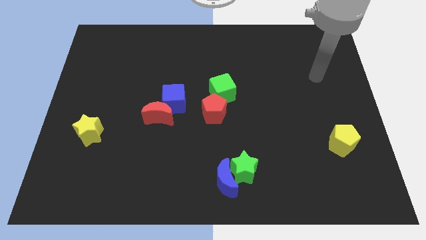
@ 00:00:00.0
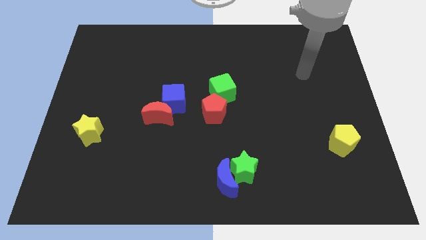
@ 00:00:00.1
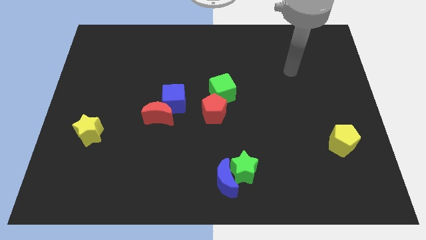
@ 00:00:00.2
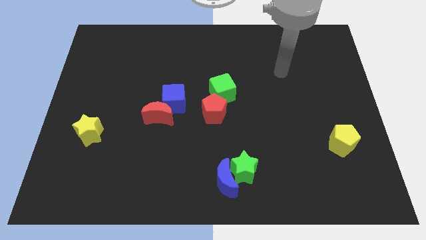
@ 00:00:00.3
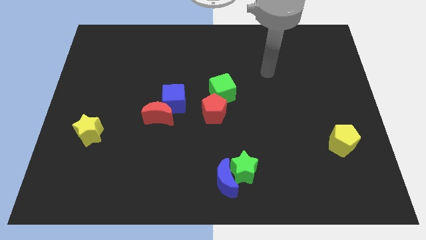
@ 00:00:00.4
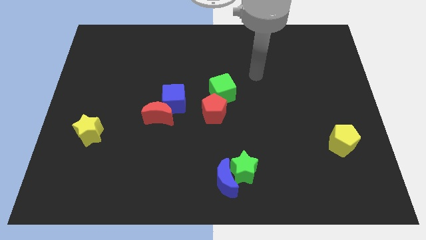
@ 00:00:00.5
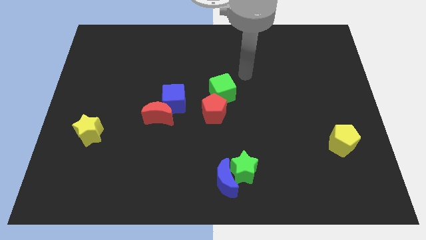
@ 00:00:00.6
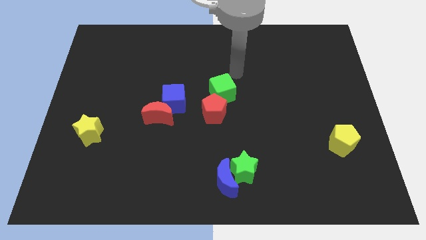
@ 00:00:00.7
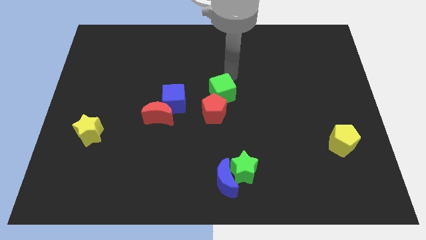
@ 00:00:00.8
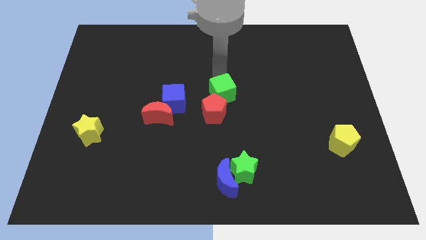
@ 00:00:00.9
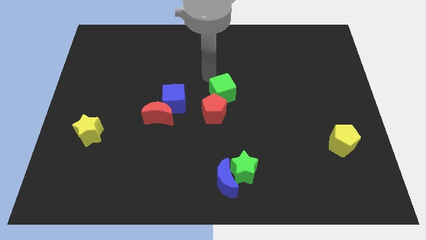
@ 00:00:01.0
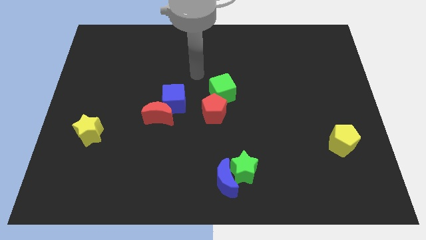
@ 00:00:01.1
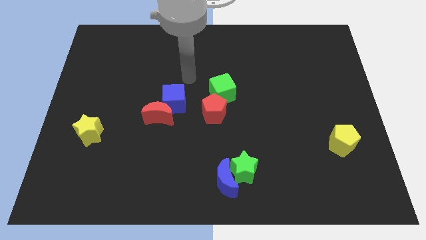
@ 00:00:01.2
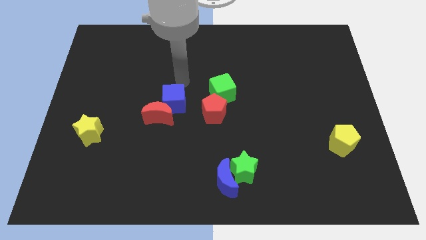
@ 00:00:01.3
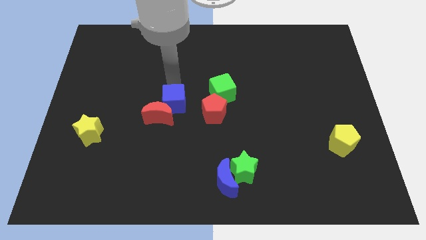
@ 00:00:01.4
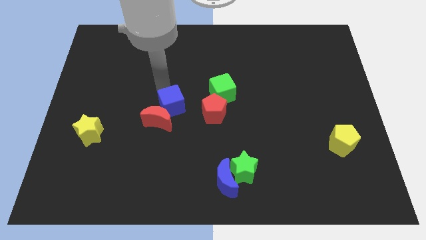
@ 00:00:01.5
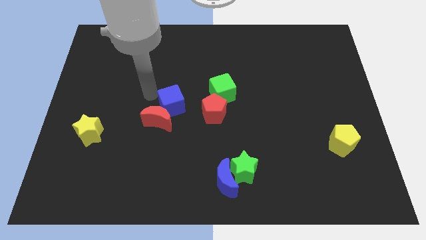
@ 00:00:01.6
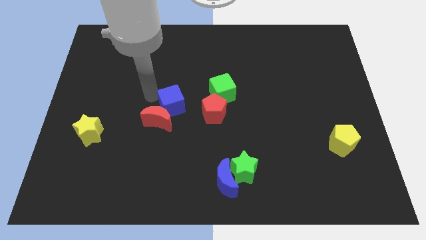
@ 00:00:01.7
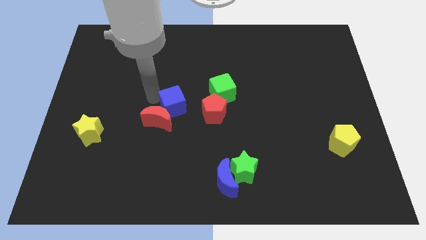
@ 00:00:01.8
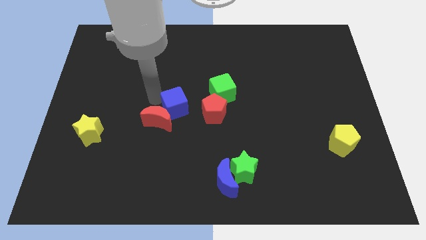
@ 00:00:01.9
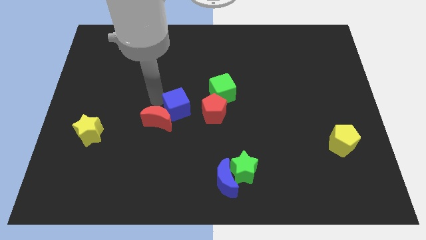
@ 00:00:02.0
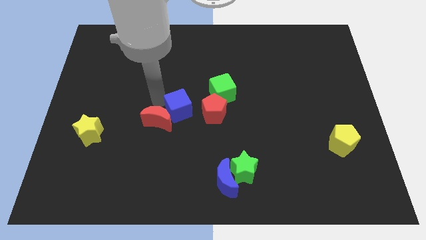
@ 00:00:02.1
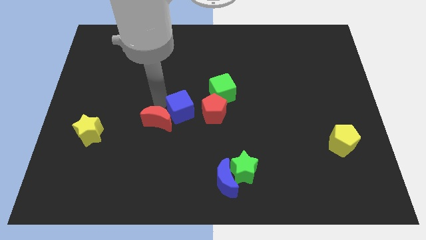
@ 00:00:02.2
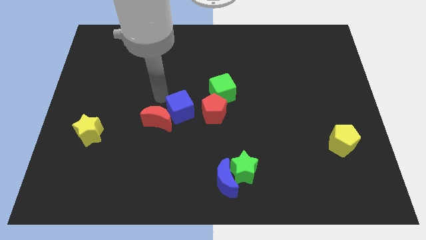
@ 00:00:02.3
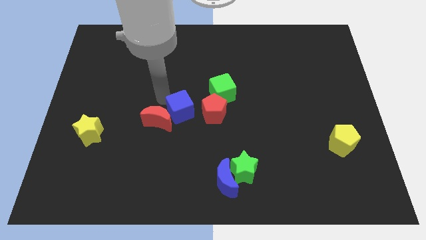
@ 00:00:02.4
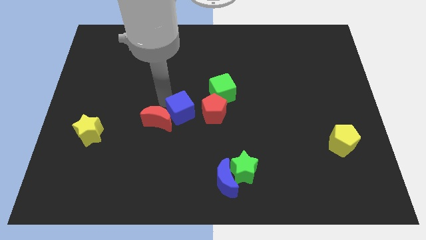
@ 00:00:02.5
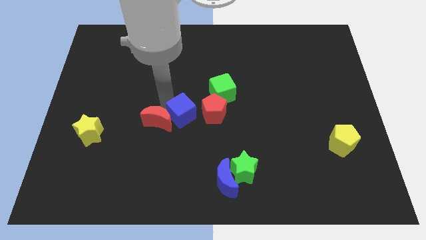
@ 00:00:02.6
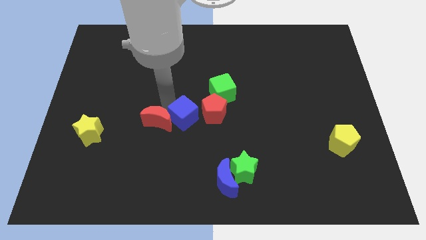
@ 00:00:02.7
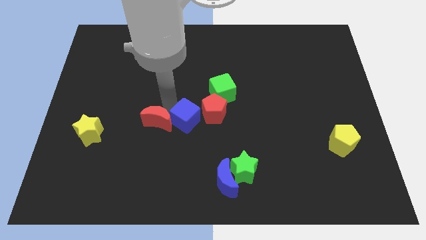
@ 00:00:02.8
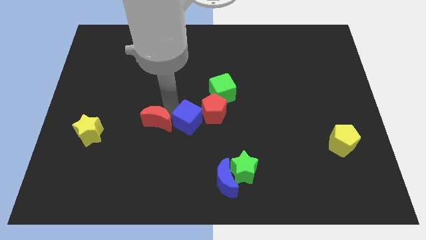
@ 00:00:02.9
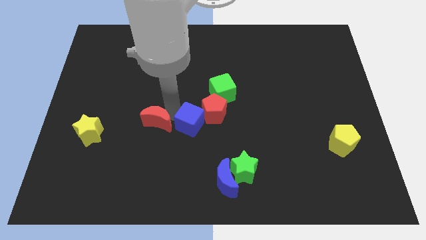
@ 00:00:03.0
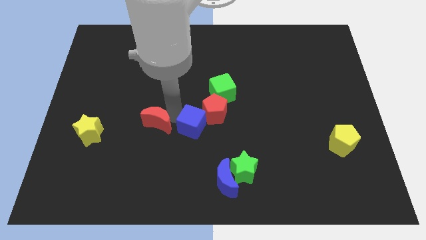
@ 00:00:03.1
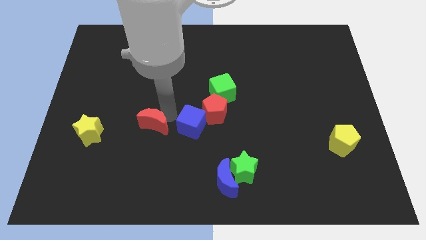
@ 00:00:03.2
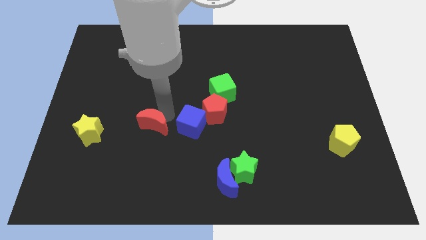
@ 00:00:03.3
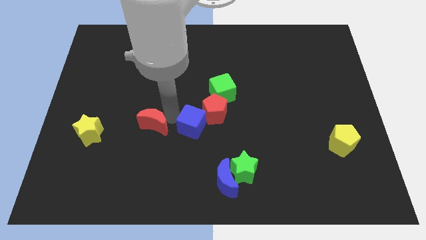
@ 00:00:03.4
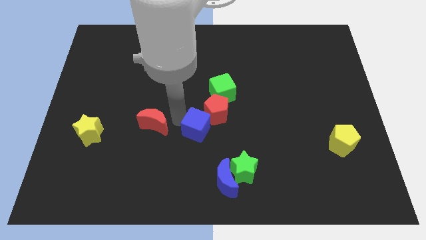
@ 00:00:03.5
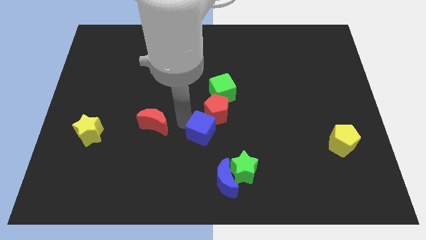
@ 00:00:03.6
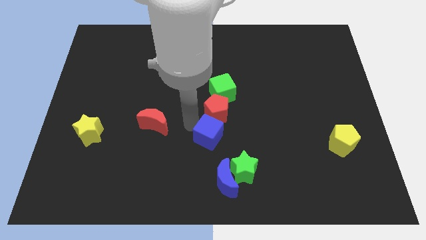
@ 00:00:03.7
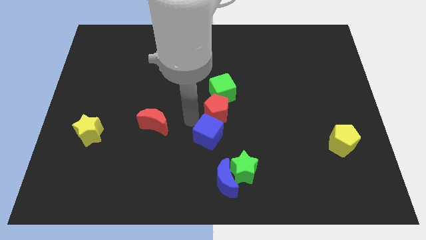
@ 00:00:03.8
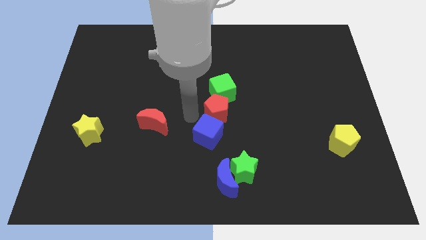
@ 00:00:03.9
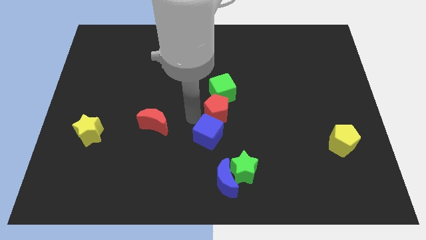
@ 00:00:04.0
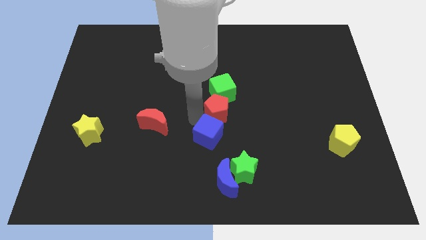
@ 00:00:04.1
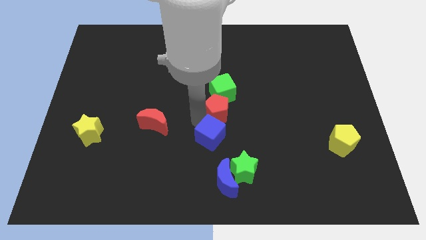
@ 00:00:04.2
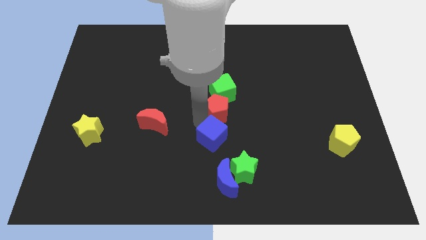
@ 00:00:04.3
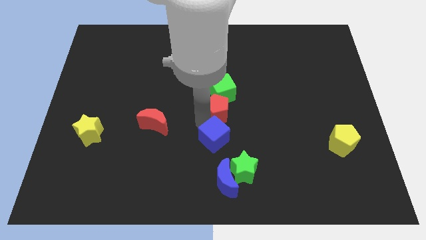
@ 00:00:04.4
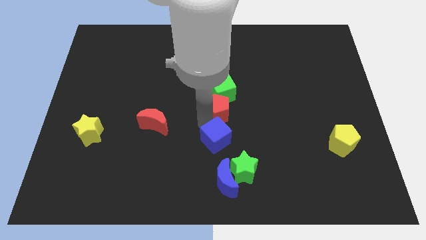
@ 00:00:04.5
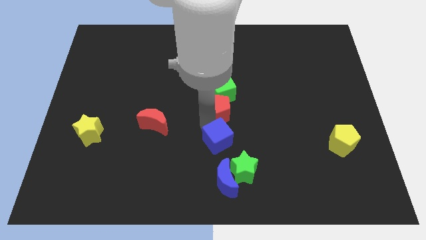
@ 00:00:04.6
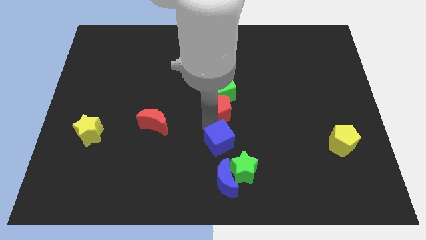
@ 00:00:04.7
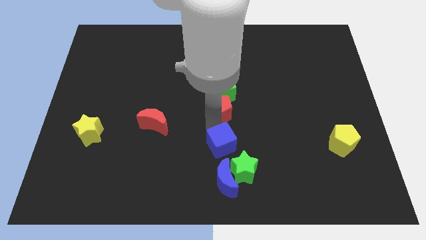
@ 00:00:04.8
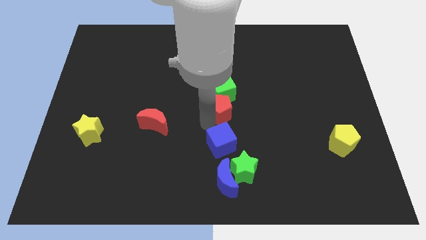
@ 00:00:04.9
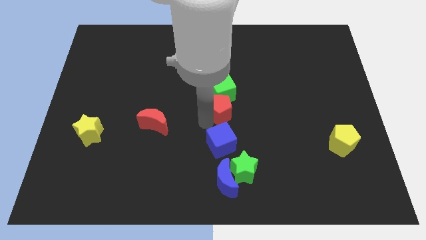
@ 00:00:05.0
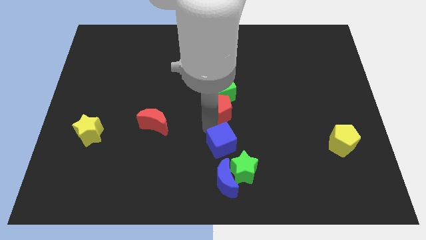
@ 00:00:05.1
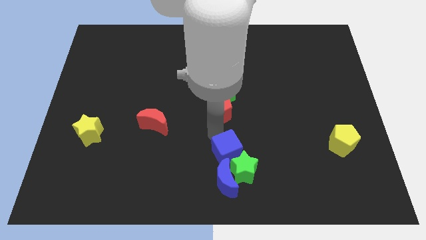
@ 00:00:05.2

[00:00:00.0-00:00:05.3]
put the blue cube next to the green star

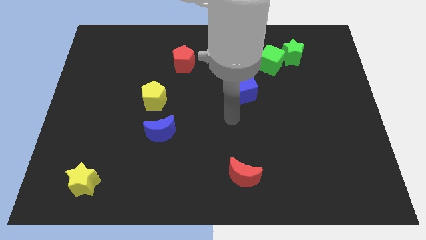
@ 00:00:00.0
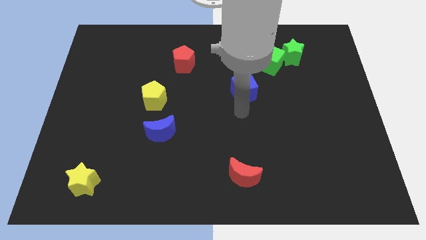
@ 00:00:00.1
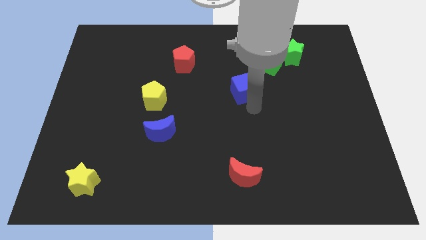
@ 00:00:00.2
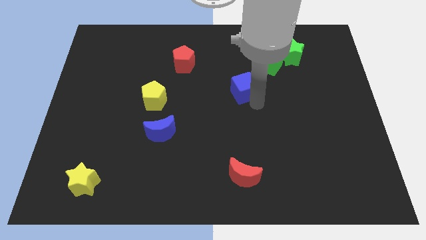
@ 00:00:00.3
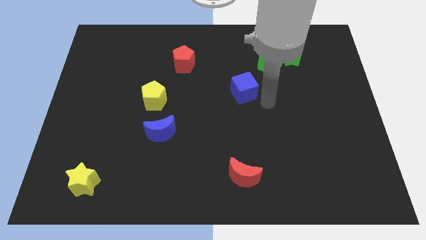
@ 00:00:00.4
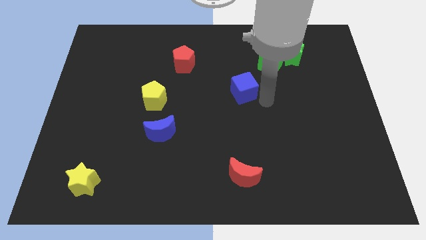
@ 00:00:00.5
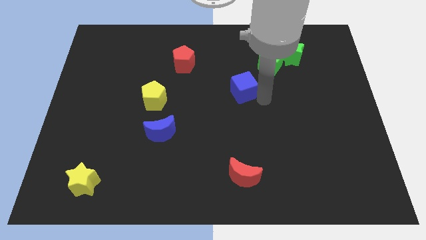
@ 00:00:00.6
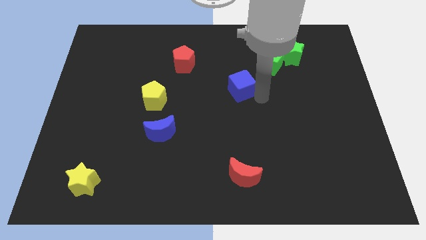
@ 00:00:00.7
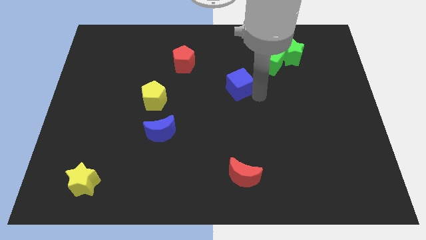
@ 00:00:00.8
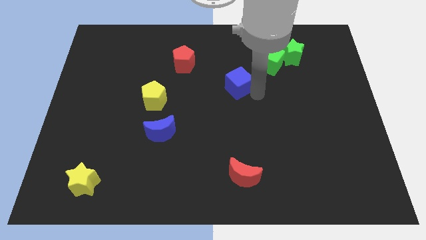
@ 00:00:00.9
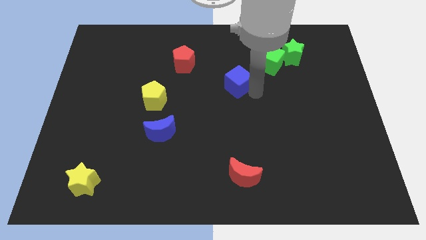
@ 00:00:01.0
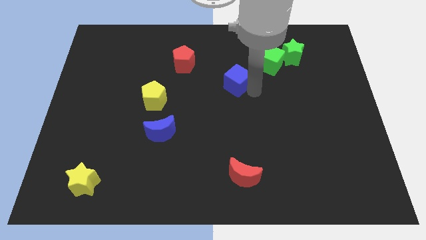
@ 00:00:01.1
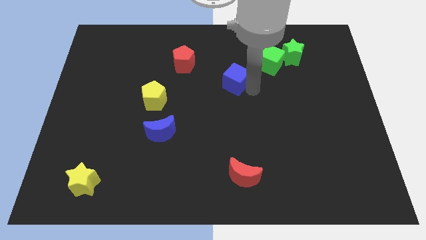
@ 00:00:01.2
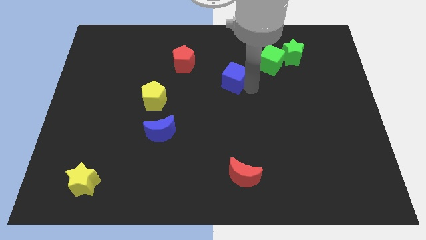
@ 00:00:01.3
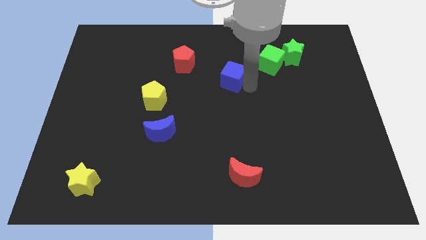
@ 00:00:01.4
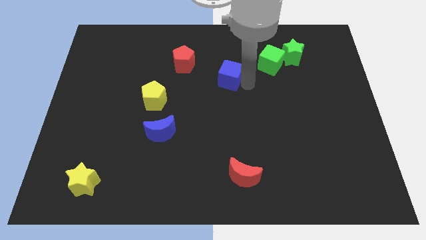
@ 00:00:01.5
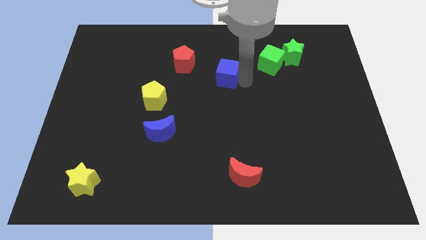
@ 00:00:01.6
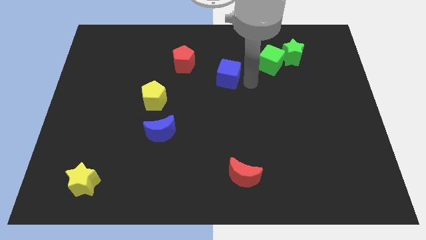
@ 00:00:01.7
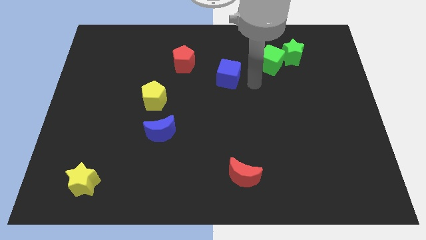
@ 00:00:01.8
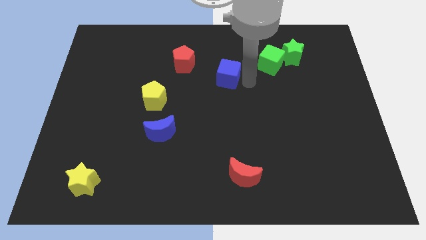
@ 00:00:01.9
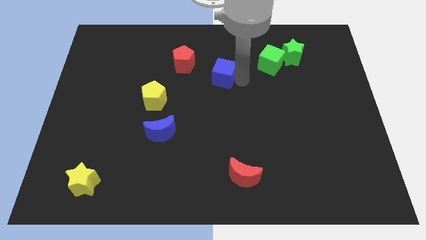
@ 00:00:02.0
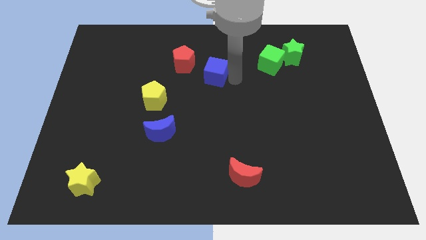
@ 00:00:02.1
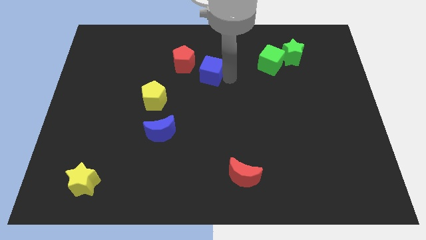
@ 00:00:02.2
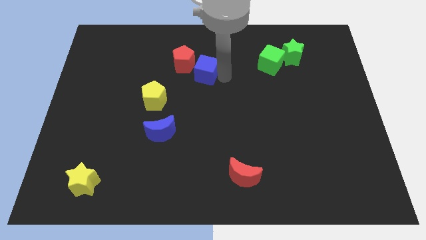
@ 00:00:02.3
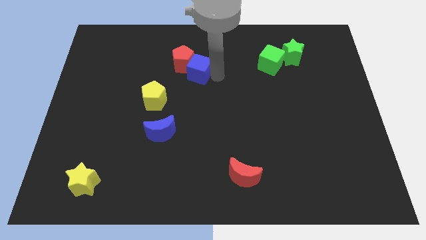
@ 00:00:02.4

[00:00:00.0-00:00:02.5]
push the blue cube close to the red pentagon
